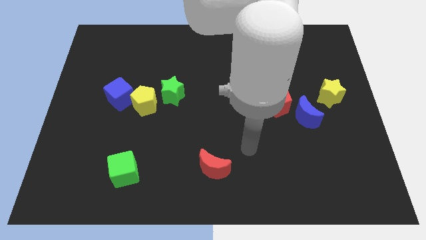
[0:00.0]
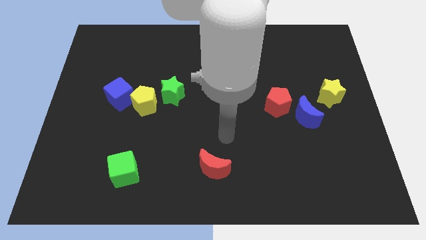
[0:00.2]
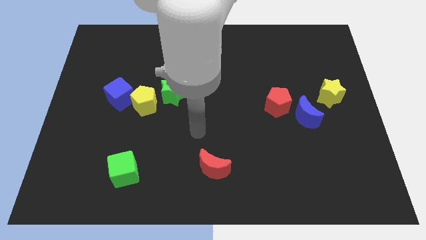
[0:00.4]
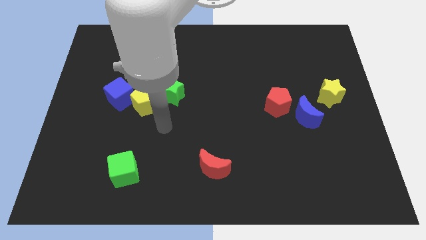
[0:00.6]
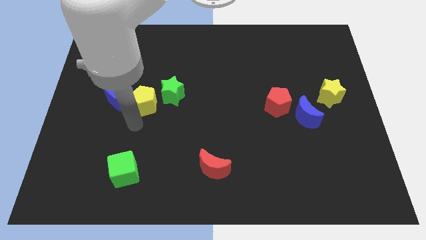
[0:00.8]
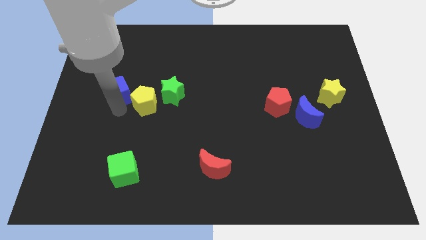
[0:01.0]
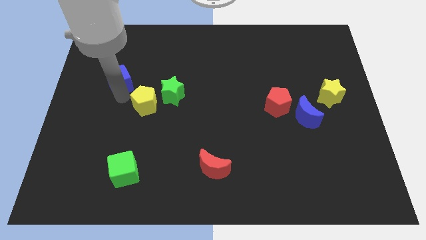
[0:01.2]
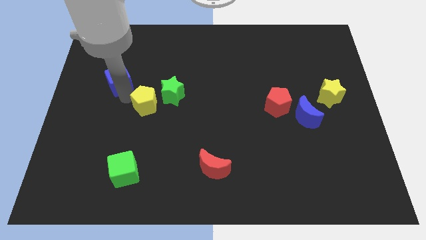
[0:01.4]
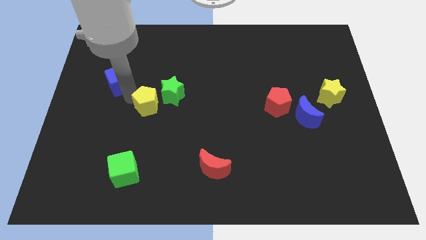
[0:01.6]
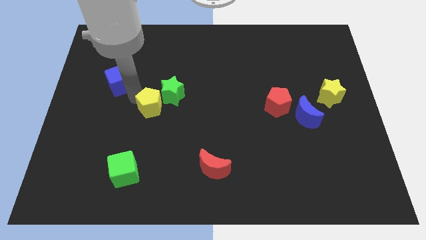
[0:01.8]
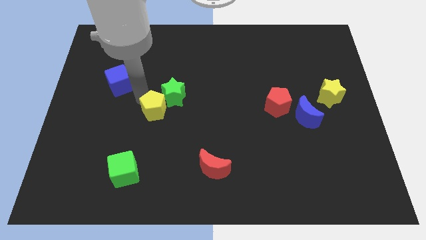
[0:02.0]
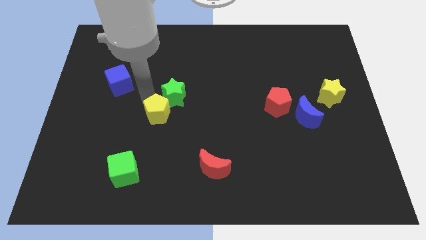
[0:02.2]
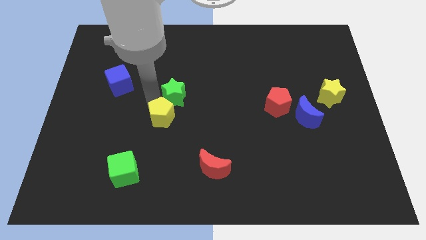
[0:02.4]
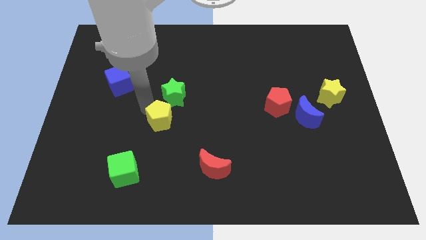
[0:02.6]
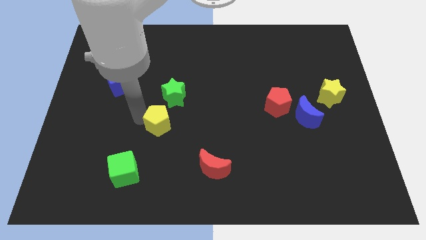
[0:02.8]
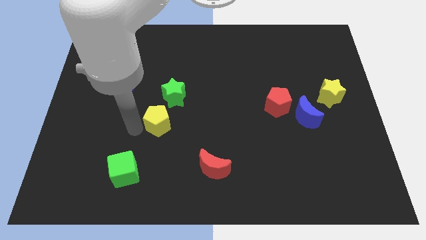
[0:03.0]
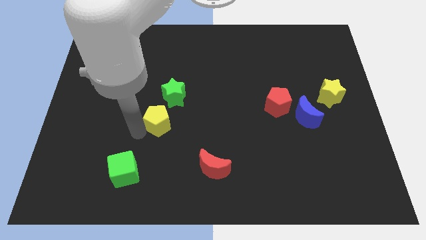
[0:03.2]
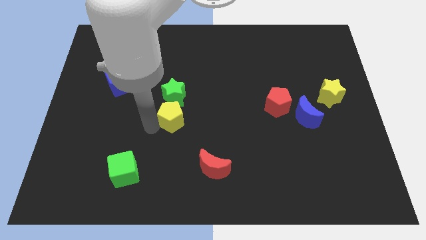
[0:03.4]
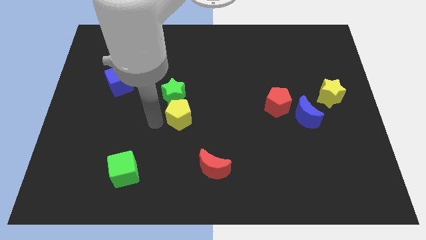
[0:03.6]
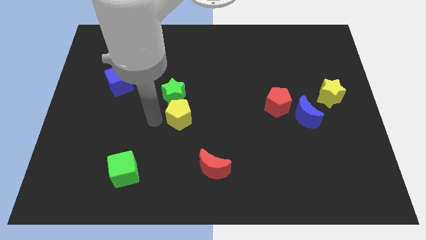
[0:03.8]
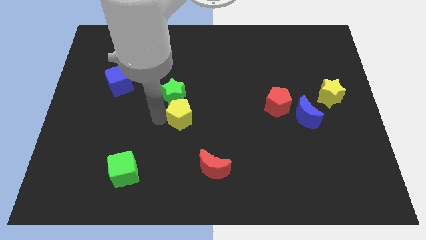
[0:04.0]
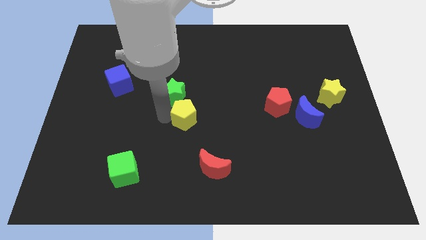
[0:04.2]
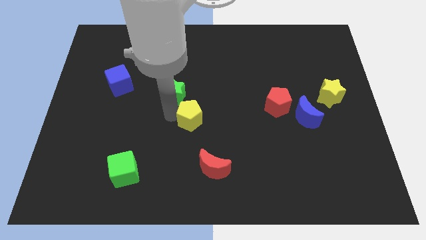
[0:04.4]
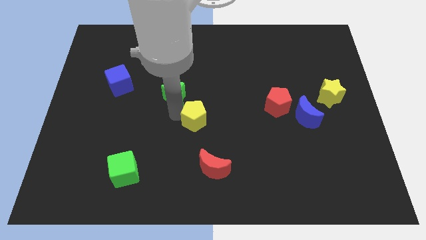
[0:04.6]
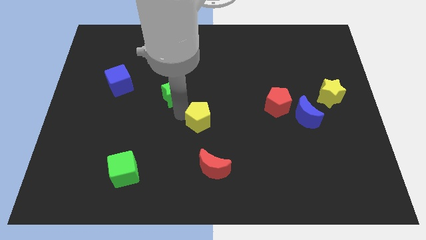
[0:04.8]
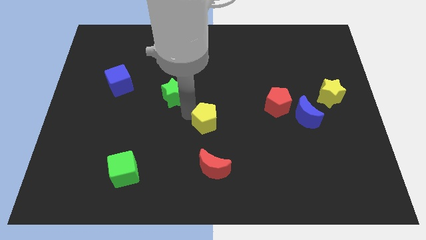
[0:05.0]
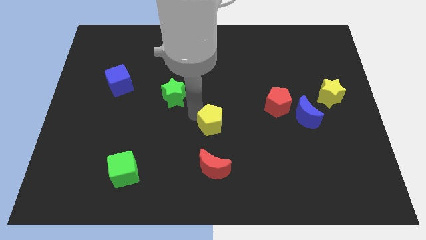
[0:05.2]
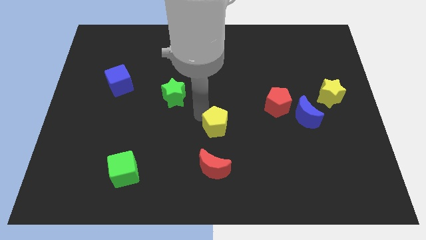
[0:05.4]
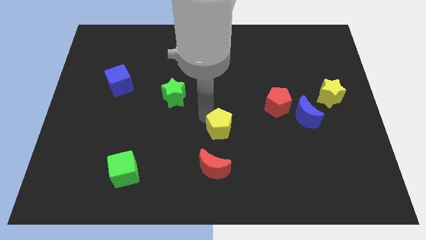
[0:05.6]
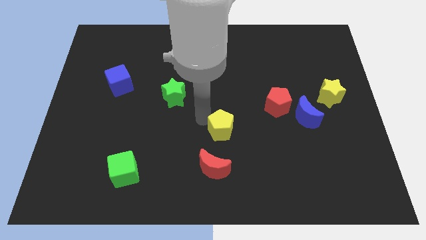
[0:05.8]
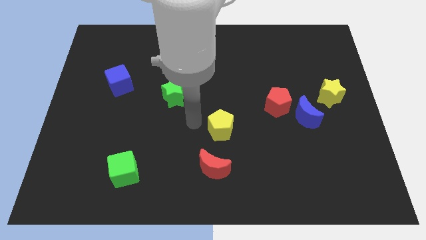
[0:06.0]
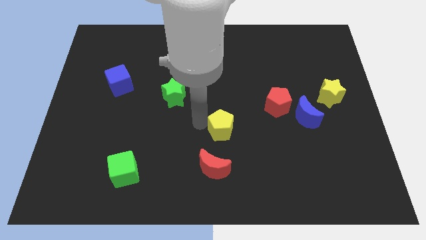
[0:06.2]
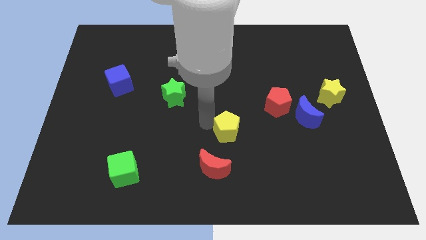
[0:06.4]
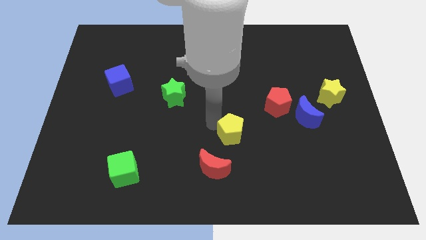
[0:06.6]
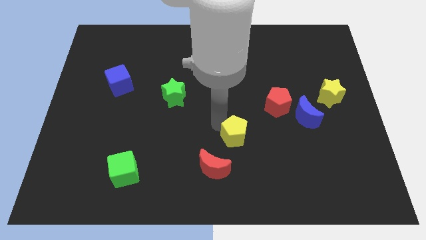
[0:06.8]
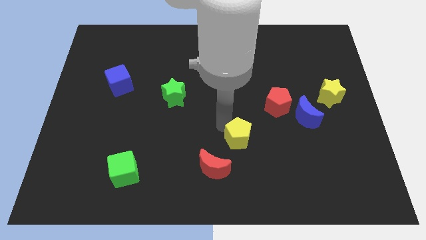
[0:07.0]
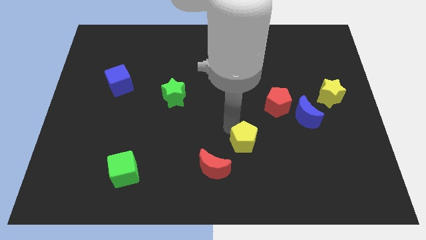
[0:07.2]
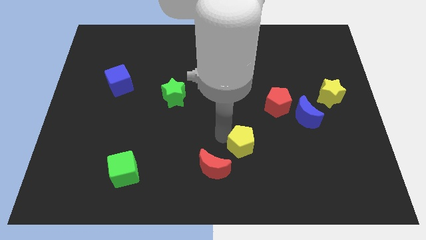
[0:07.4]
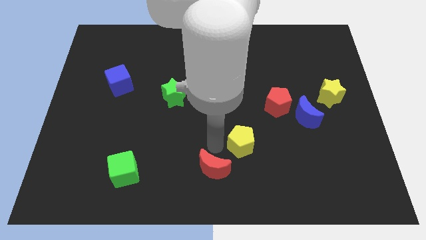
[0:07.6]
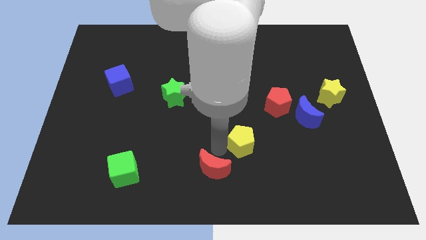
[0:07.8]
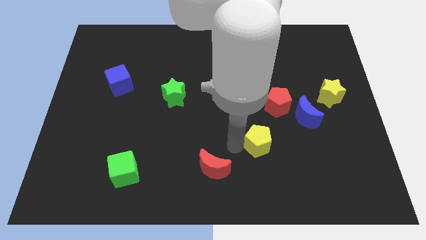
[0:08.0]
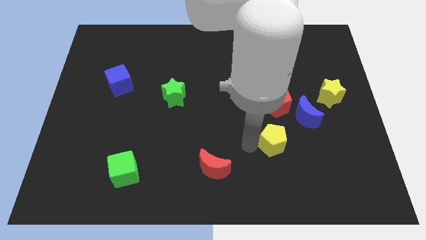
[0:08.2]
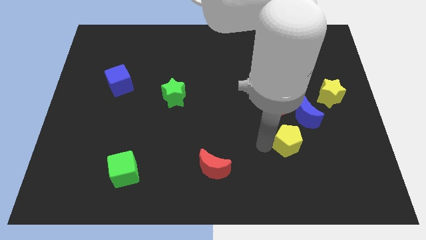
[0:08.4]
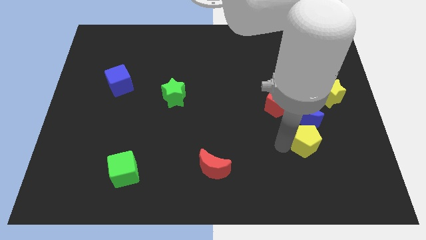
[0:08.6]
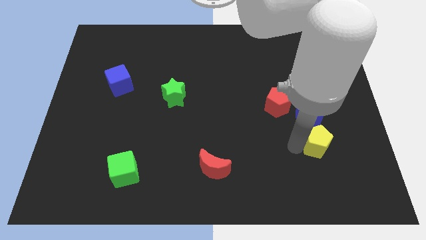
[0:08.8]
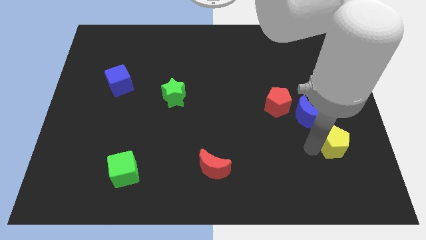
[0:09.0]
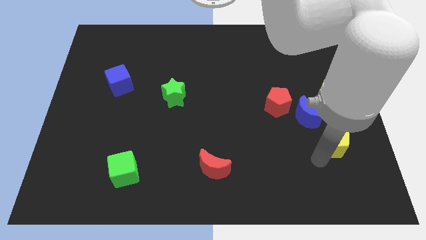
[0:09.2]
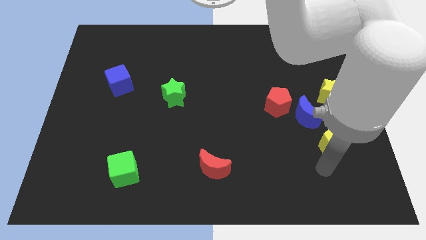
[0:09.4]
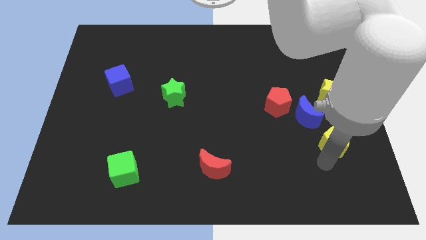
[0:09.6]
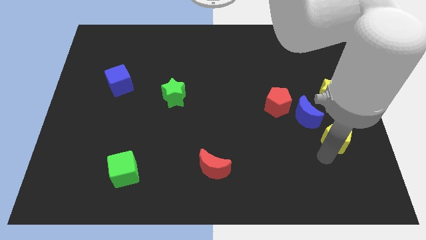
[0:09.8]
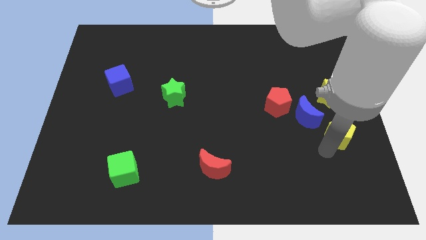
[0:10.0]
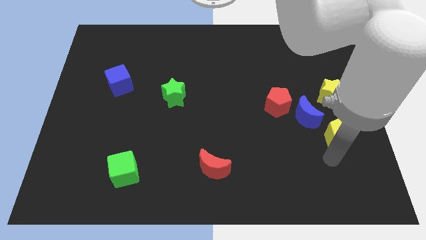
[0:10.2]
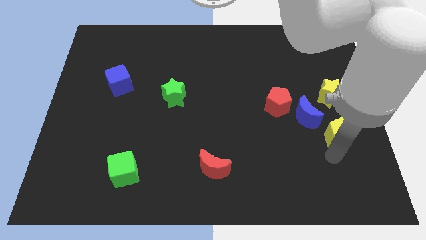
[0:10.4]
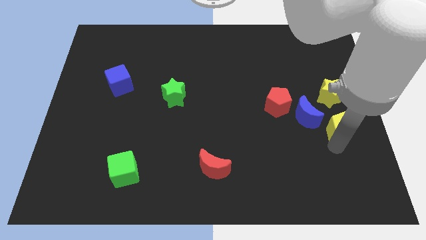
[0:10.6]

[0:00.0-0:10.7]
put the yellow pentagon to the right side of the board

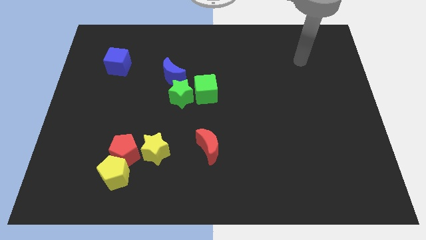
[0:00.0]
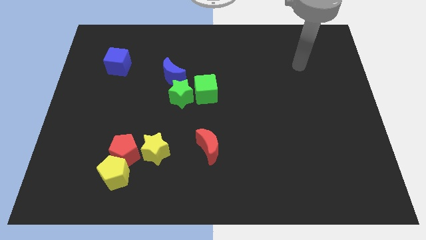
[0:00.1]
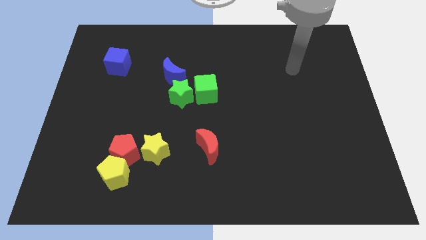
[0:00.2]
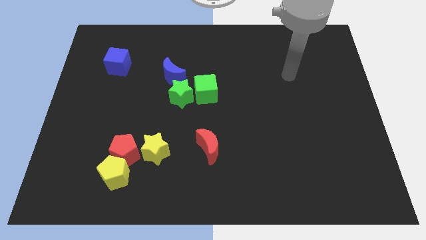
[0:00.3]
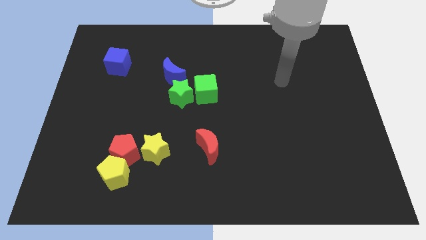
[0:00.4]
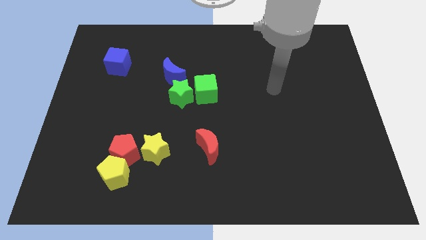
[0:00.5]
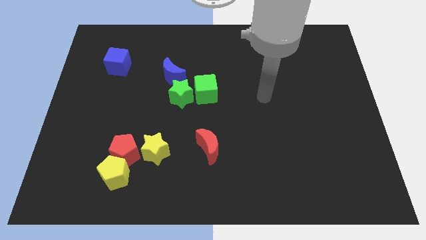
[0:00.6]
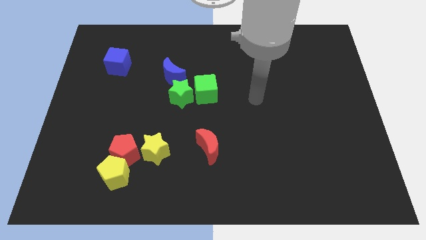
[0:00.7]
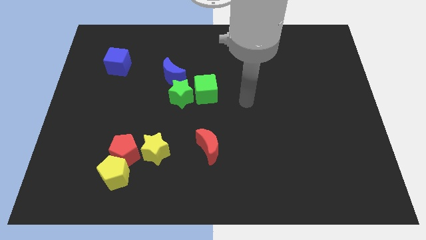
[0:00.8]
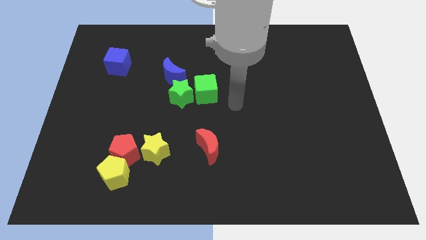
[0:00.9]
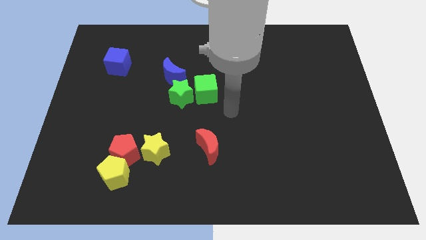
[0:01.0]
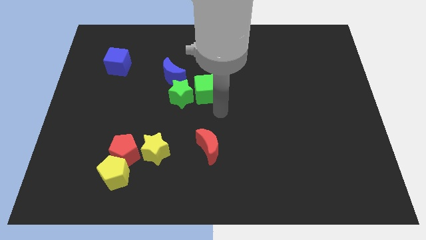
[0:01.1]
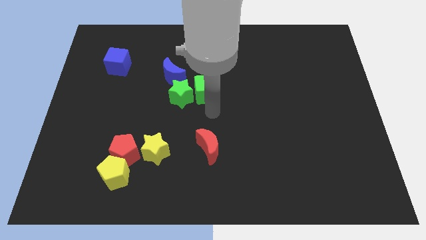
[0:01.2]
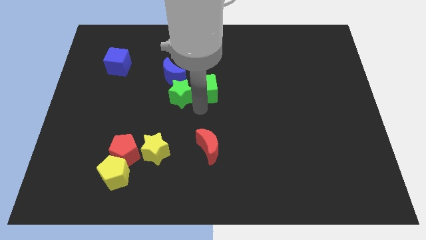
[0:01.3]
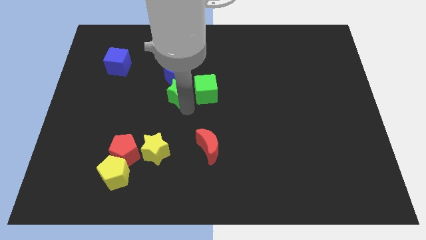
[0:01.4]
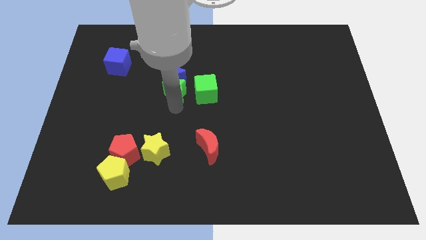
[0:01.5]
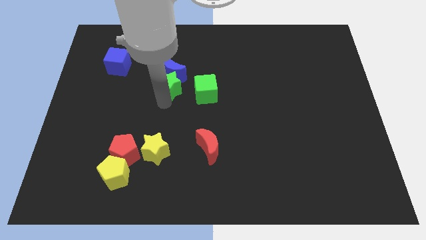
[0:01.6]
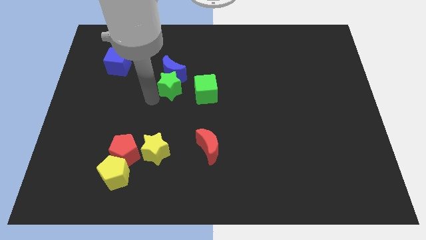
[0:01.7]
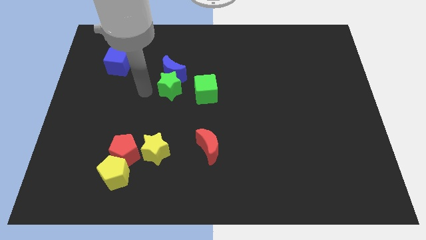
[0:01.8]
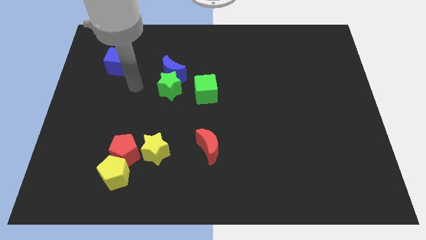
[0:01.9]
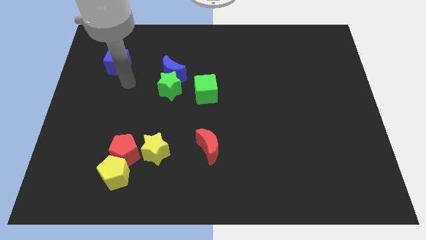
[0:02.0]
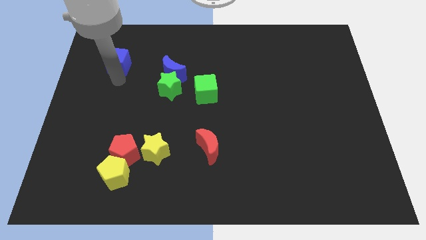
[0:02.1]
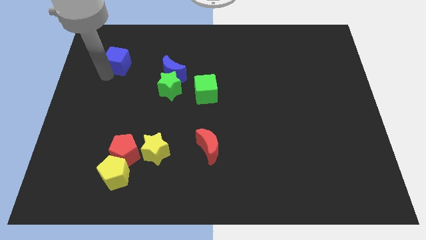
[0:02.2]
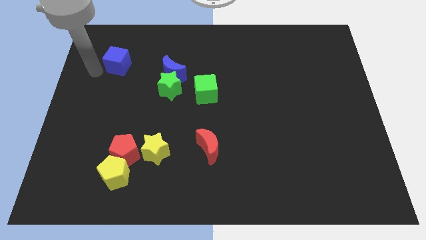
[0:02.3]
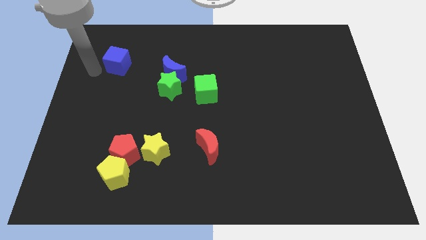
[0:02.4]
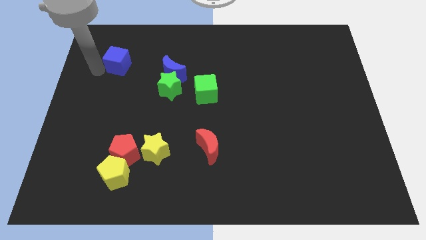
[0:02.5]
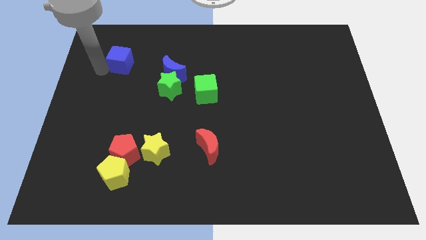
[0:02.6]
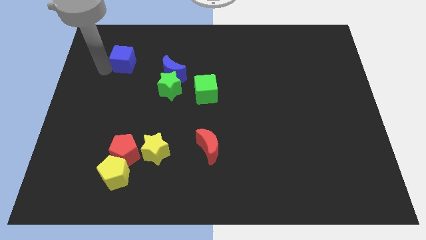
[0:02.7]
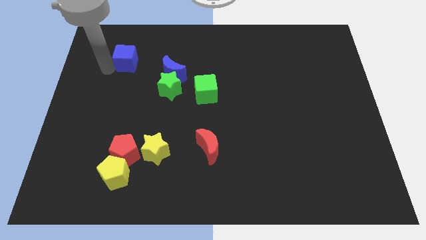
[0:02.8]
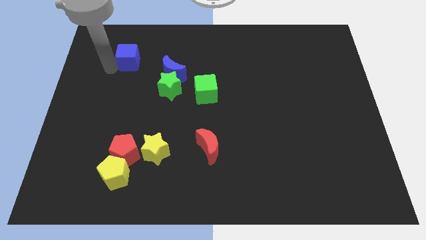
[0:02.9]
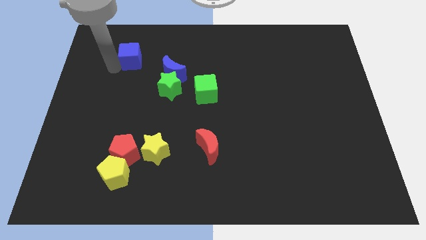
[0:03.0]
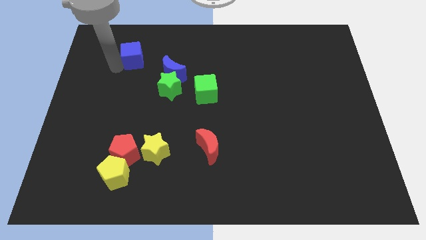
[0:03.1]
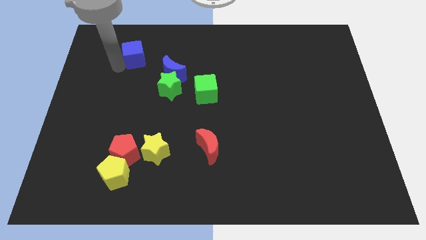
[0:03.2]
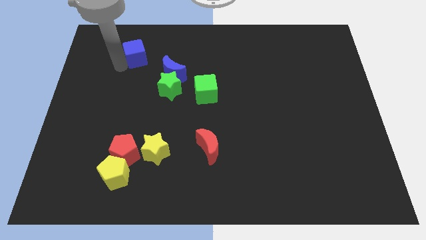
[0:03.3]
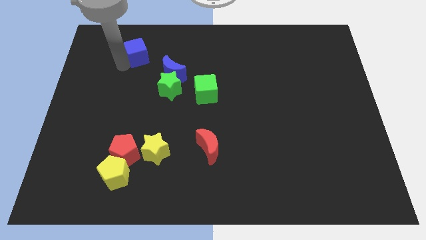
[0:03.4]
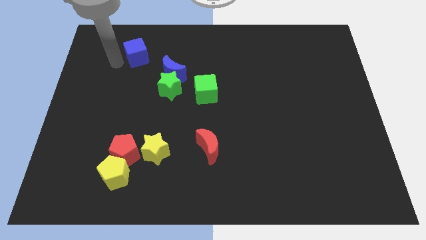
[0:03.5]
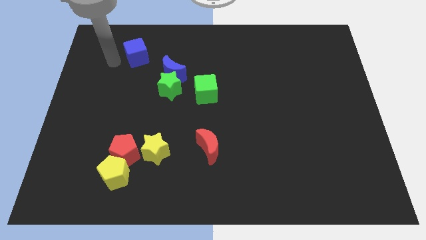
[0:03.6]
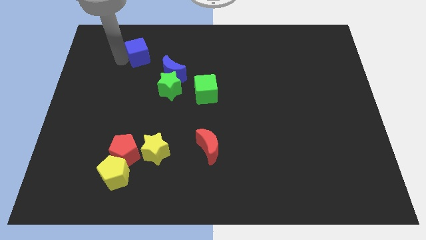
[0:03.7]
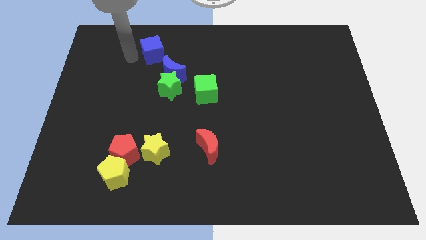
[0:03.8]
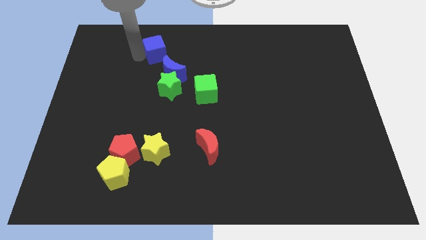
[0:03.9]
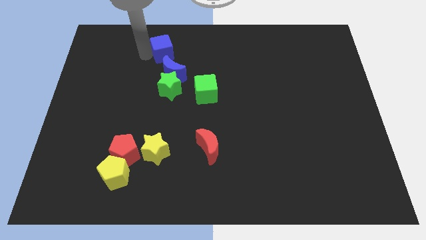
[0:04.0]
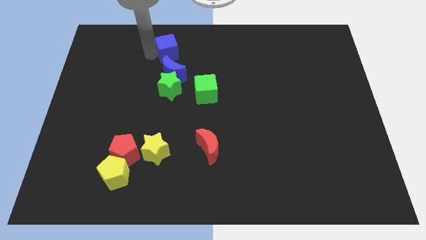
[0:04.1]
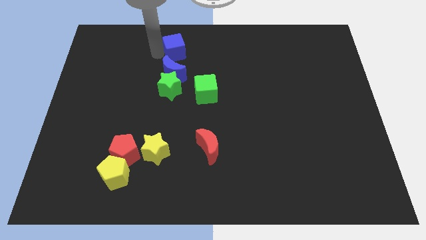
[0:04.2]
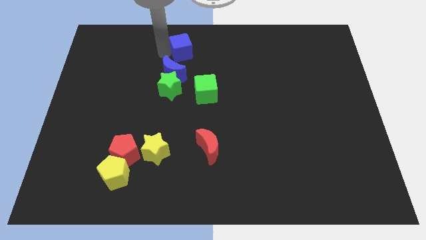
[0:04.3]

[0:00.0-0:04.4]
push the blue cube to the towards your base
